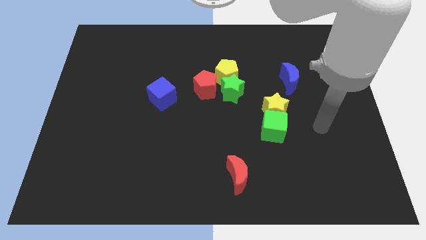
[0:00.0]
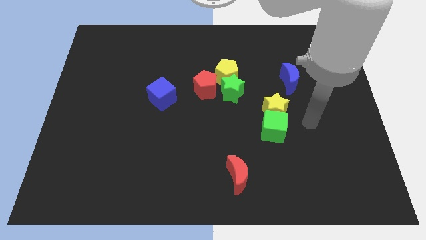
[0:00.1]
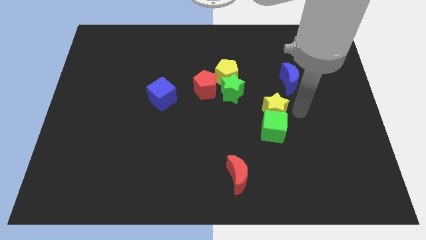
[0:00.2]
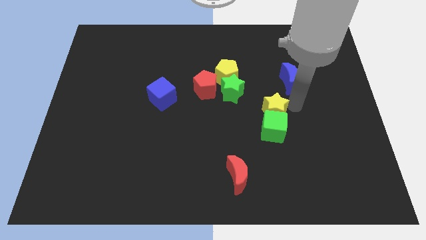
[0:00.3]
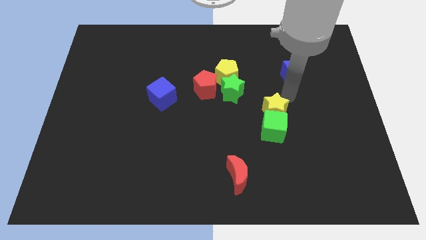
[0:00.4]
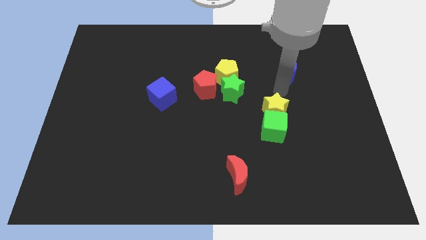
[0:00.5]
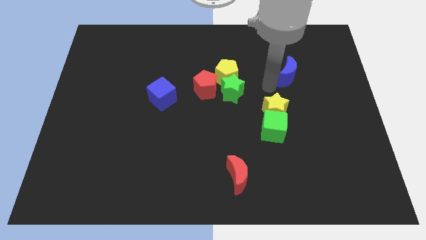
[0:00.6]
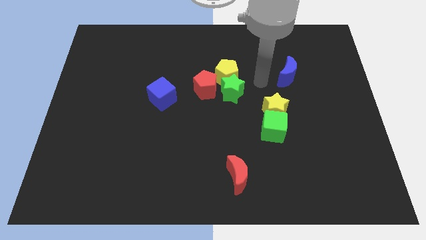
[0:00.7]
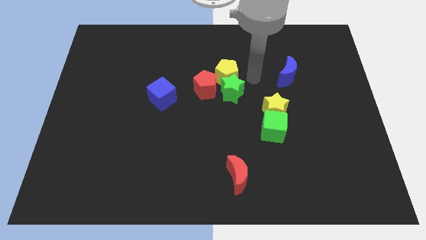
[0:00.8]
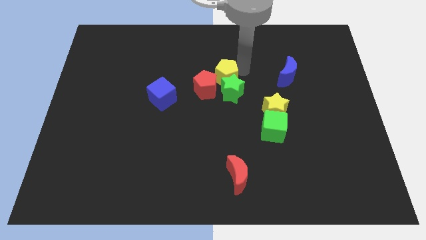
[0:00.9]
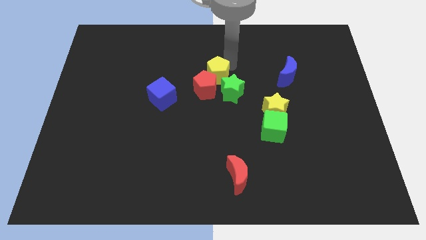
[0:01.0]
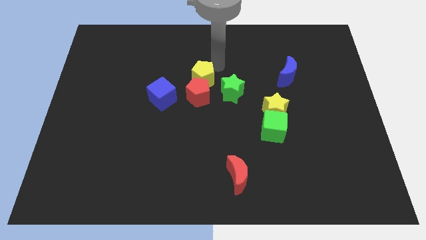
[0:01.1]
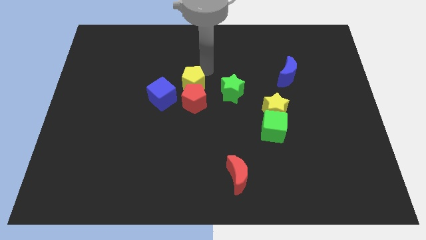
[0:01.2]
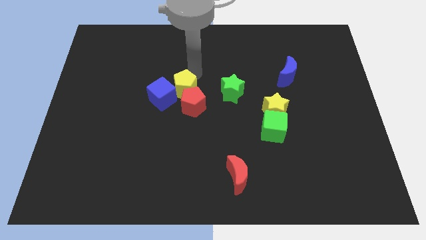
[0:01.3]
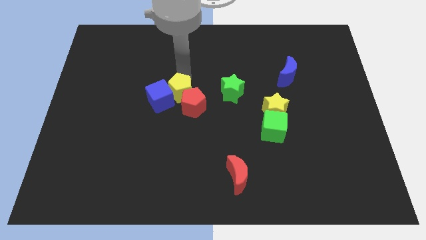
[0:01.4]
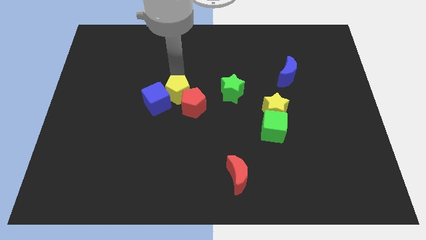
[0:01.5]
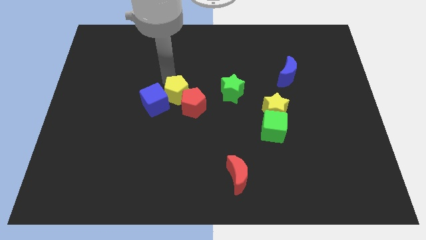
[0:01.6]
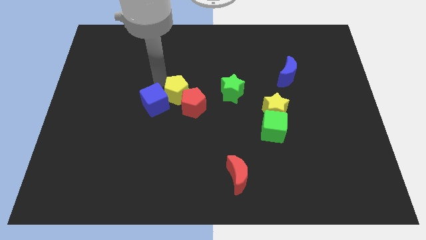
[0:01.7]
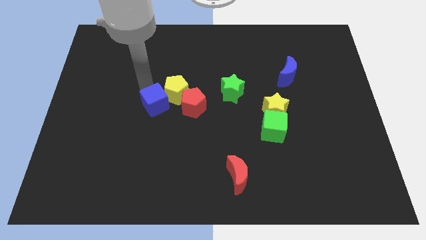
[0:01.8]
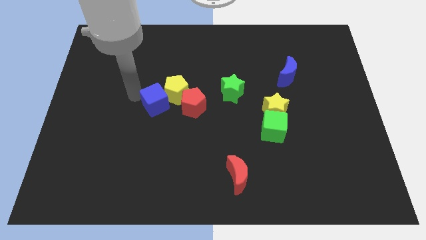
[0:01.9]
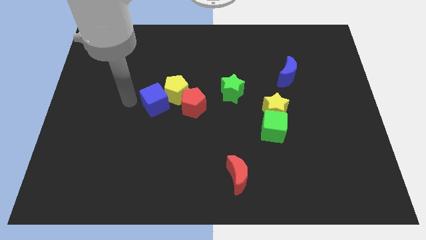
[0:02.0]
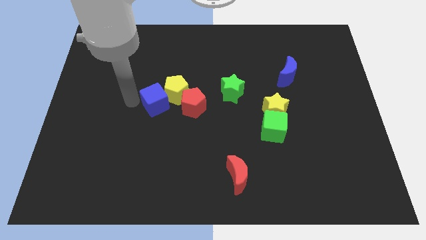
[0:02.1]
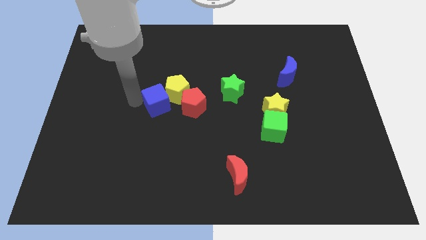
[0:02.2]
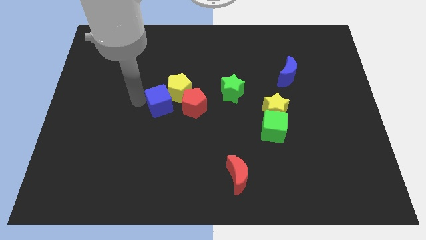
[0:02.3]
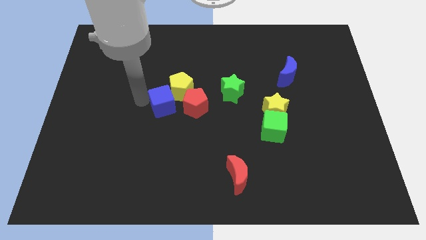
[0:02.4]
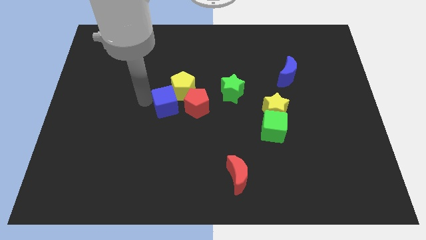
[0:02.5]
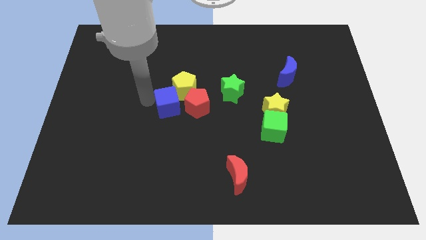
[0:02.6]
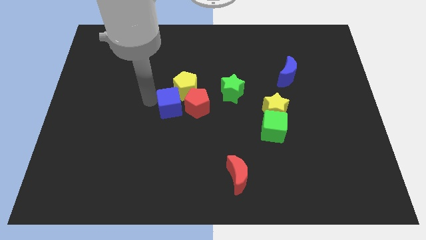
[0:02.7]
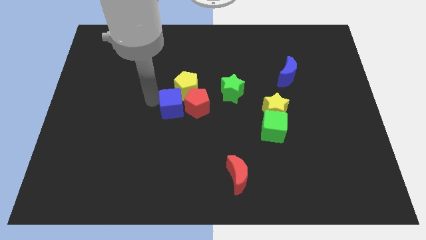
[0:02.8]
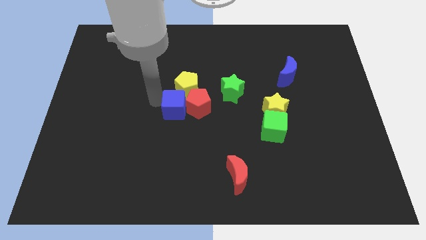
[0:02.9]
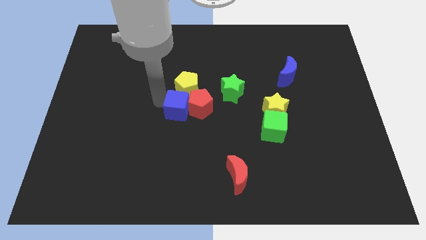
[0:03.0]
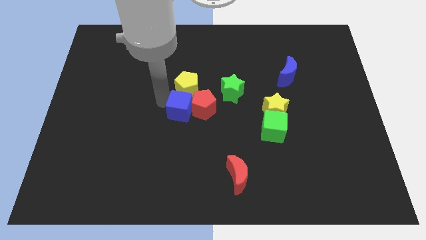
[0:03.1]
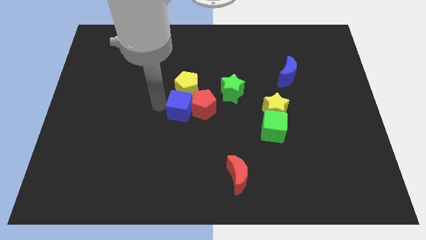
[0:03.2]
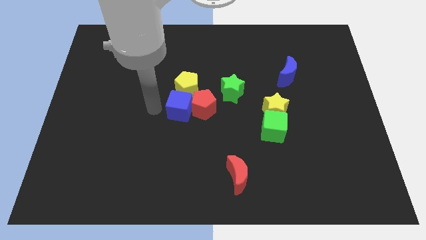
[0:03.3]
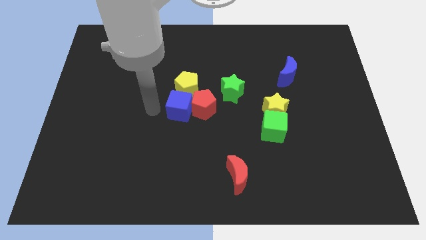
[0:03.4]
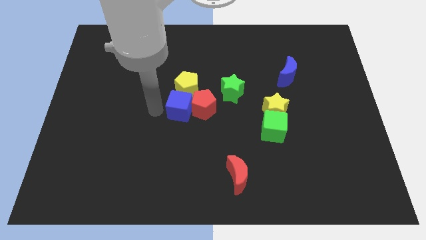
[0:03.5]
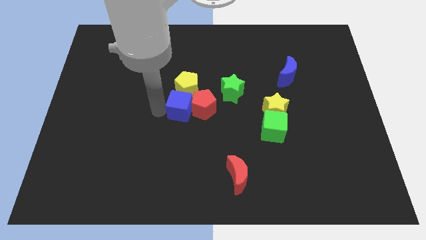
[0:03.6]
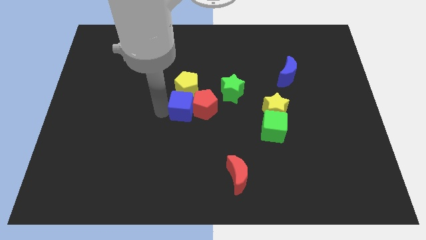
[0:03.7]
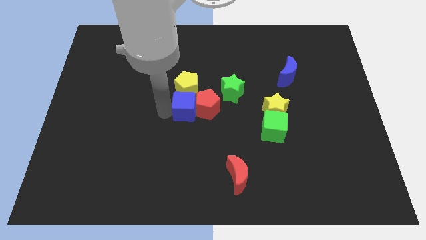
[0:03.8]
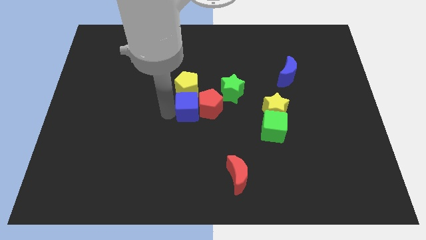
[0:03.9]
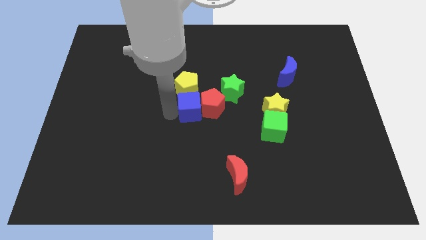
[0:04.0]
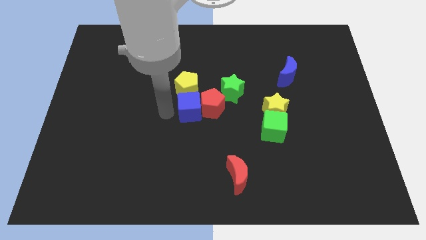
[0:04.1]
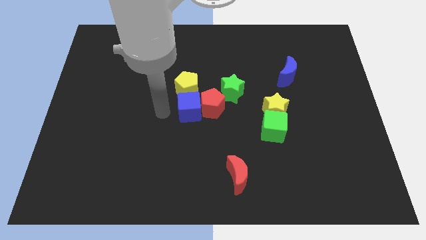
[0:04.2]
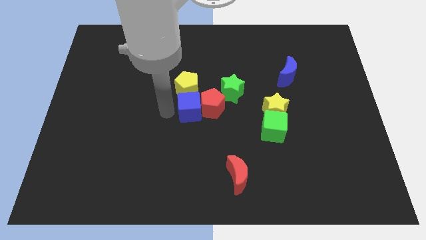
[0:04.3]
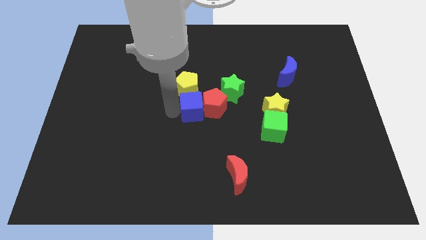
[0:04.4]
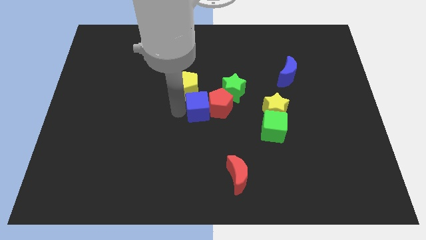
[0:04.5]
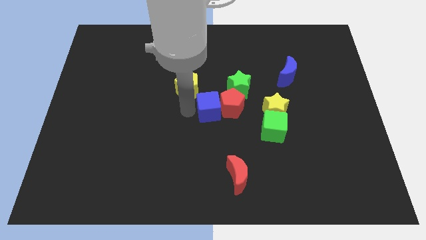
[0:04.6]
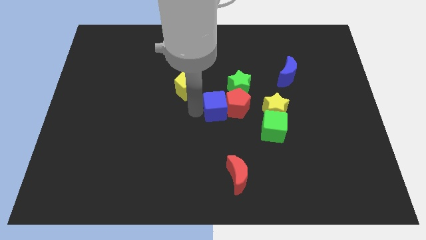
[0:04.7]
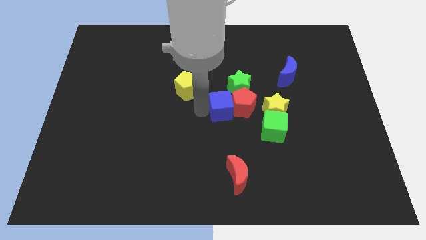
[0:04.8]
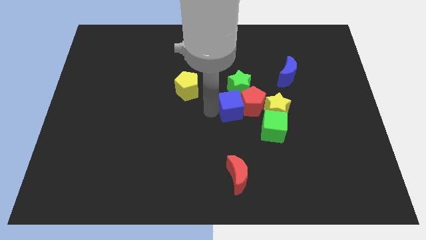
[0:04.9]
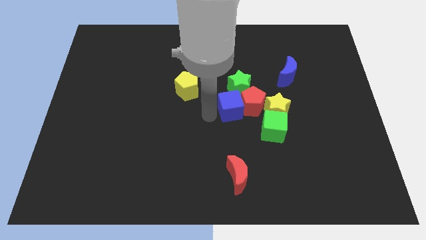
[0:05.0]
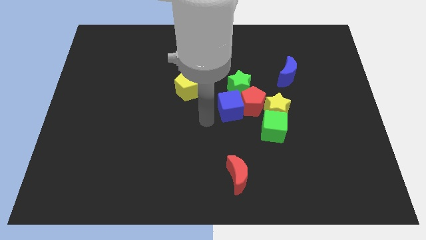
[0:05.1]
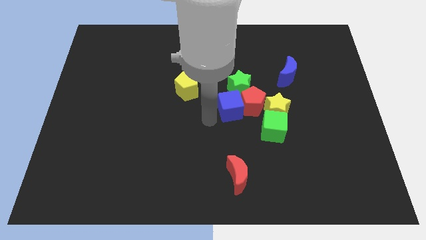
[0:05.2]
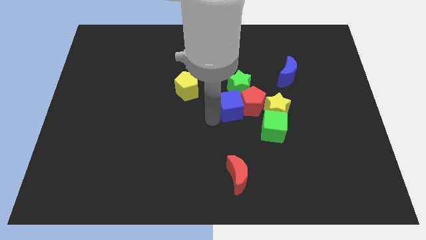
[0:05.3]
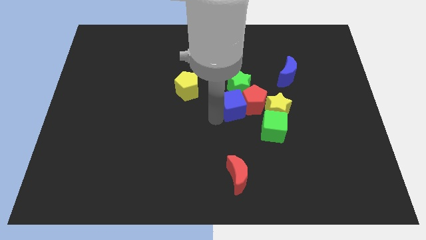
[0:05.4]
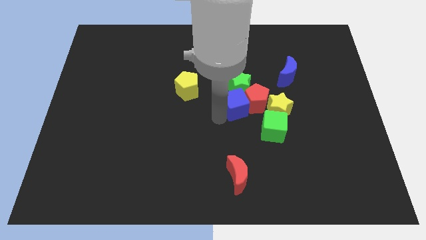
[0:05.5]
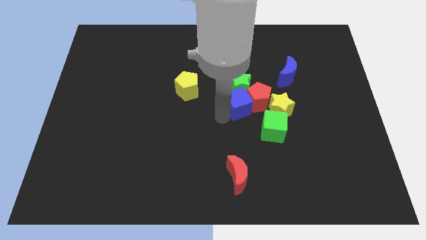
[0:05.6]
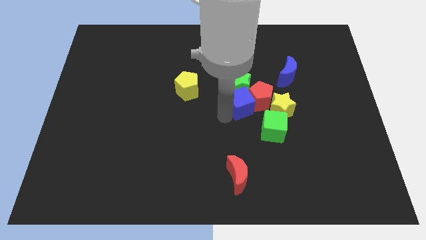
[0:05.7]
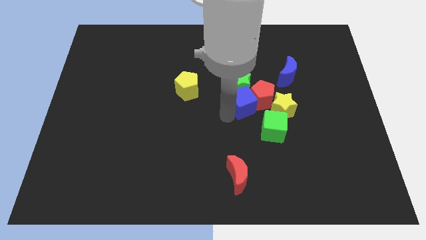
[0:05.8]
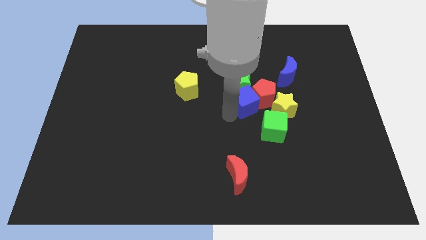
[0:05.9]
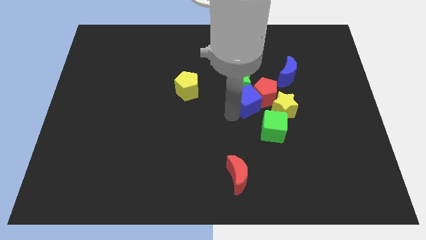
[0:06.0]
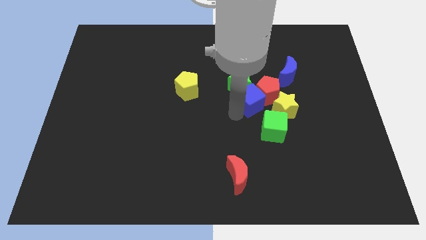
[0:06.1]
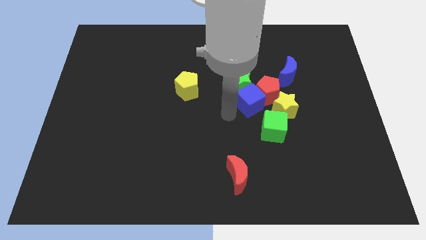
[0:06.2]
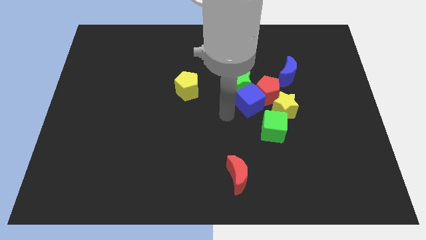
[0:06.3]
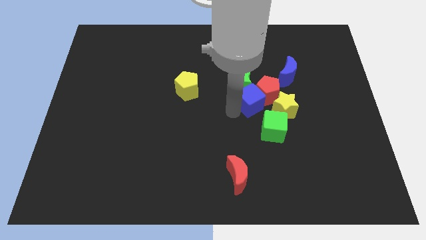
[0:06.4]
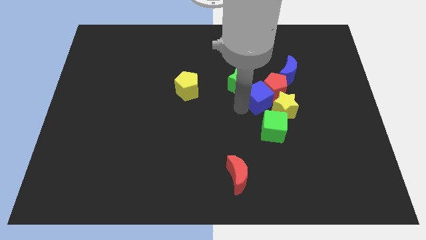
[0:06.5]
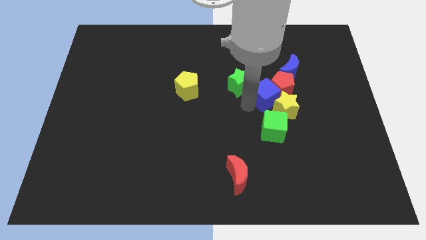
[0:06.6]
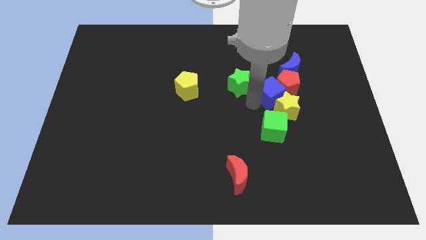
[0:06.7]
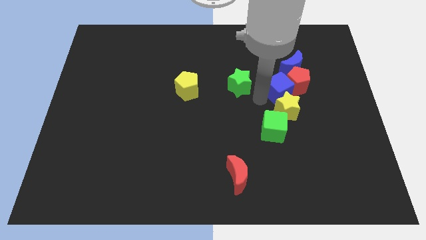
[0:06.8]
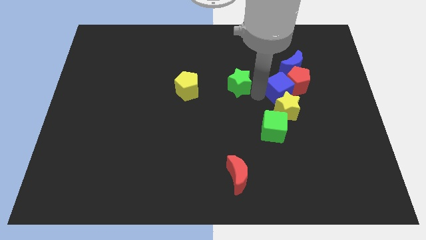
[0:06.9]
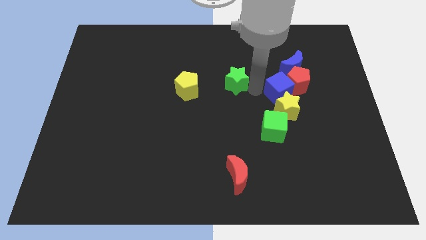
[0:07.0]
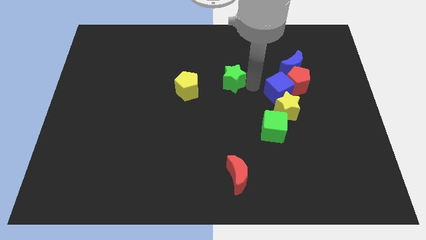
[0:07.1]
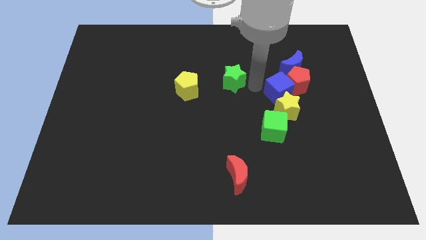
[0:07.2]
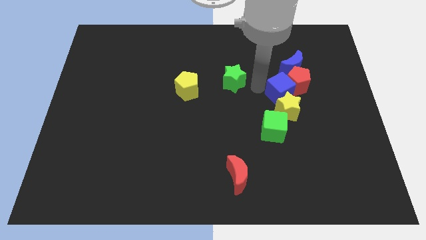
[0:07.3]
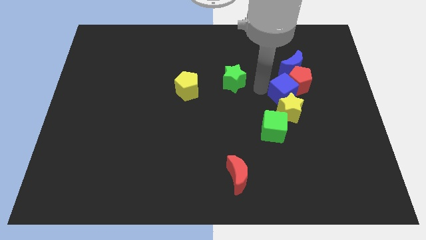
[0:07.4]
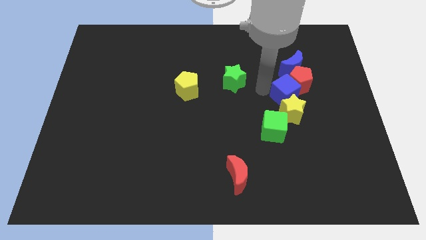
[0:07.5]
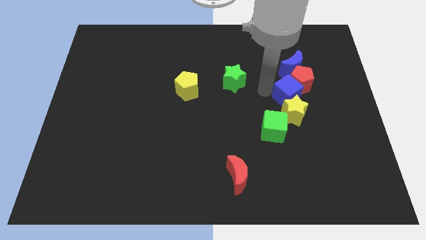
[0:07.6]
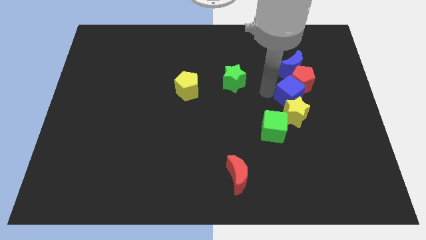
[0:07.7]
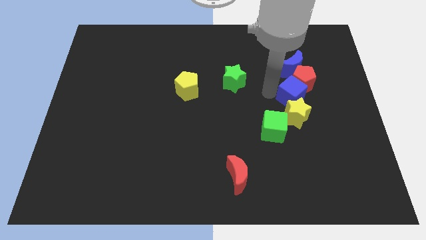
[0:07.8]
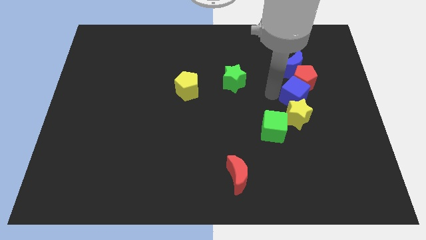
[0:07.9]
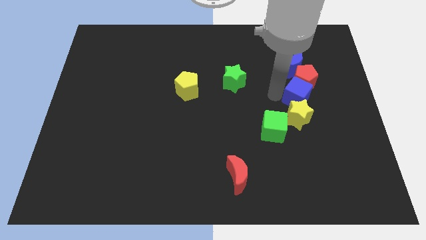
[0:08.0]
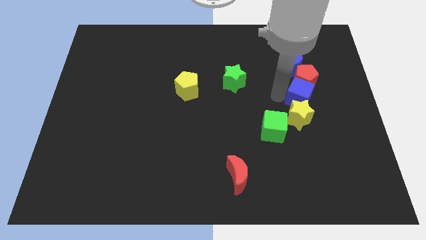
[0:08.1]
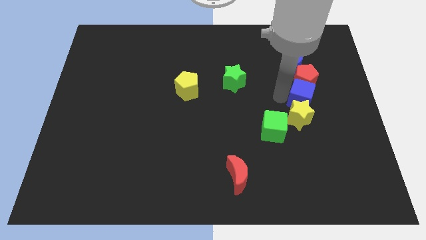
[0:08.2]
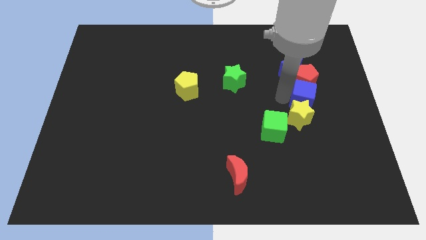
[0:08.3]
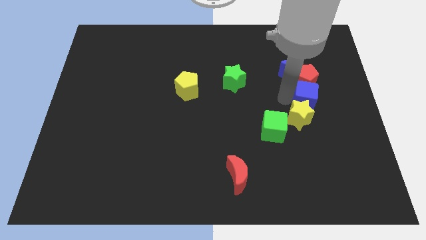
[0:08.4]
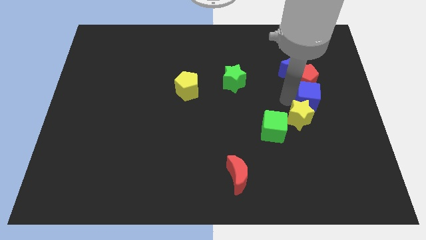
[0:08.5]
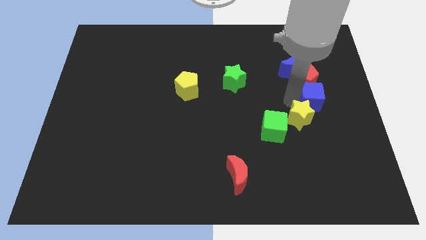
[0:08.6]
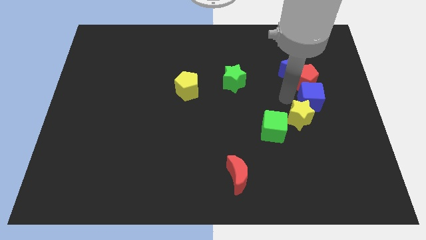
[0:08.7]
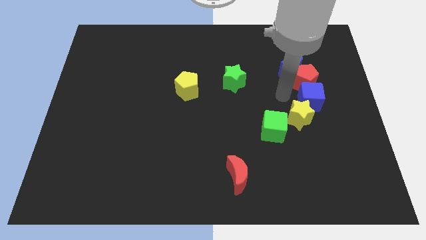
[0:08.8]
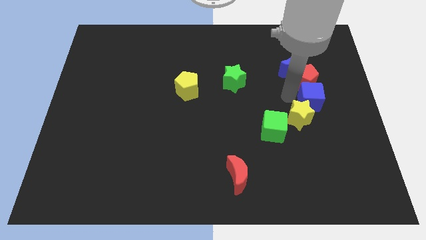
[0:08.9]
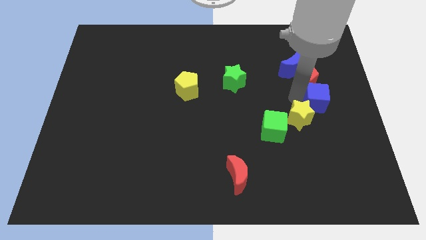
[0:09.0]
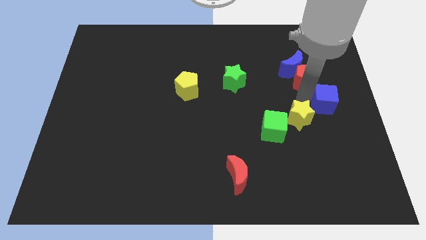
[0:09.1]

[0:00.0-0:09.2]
move the blue cube to the center right
